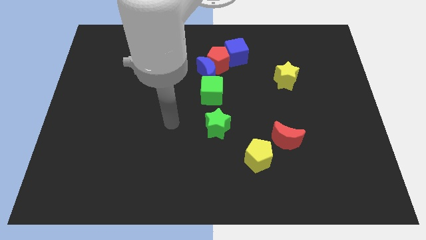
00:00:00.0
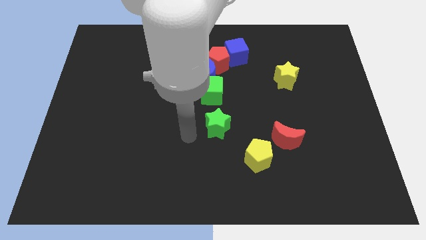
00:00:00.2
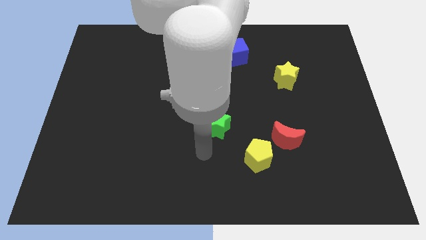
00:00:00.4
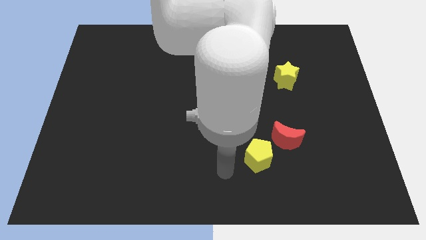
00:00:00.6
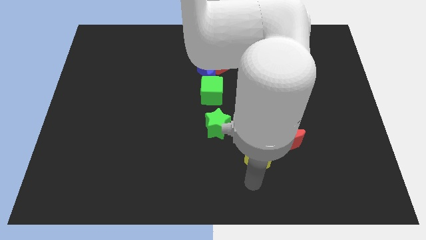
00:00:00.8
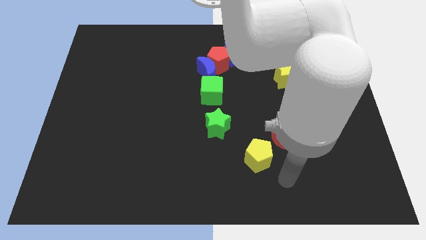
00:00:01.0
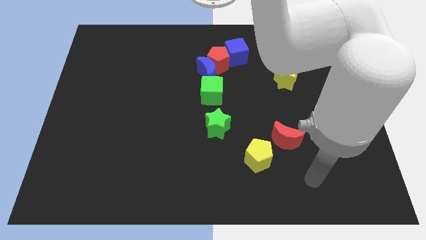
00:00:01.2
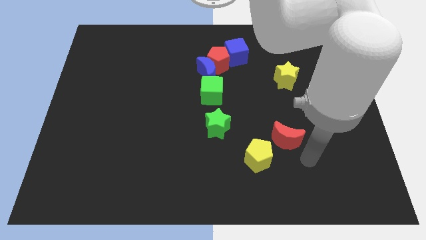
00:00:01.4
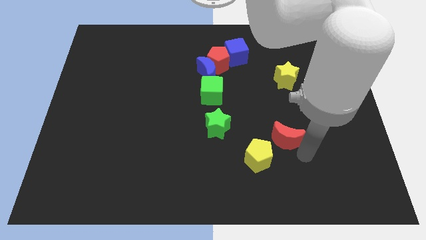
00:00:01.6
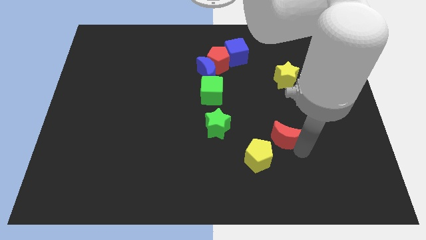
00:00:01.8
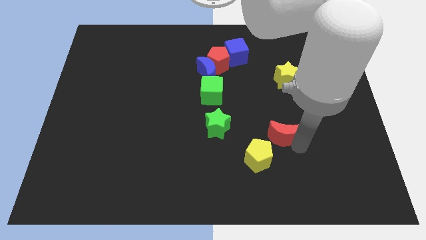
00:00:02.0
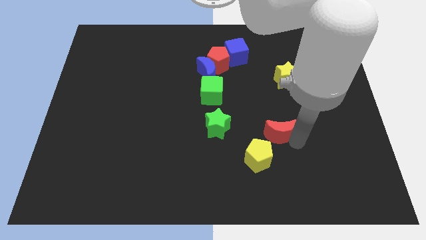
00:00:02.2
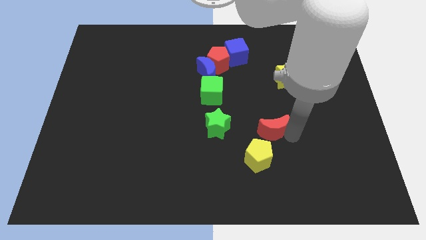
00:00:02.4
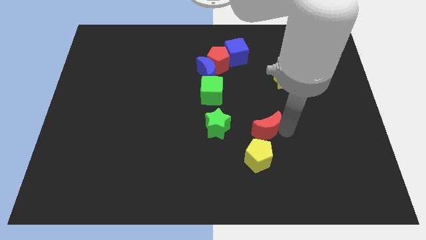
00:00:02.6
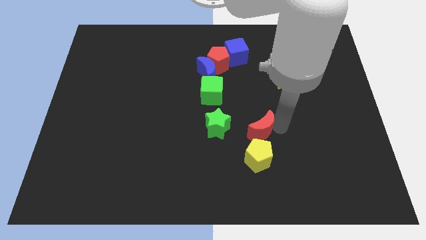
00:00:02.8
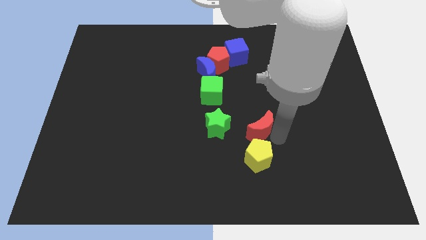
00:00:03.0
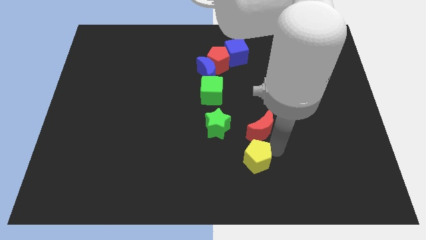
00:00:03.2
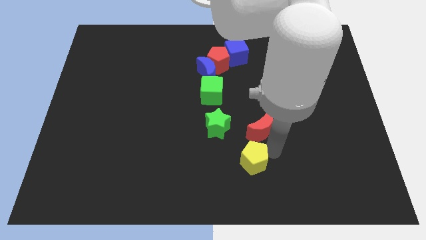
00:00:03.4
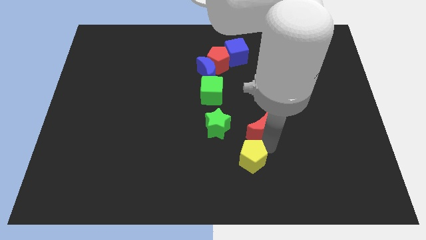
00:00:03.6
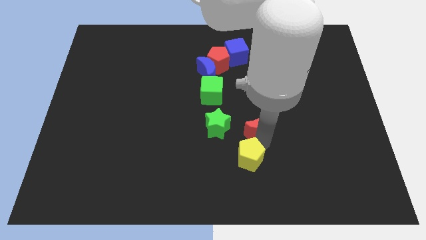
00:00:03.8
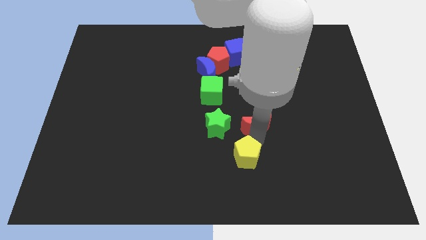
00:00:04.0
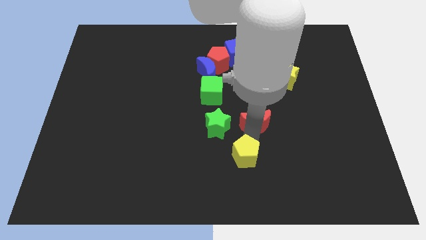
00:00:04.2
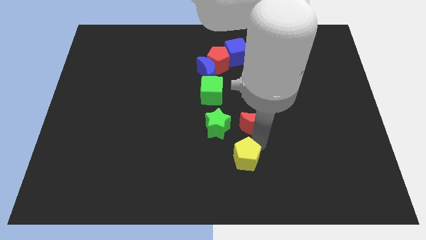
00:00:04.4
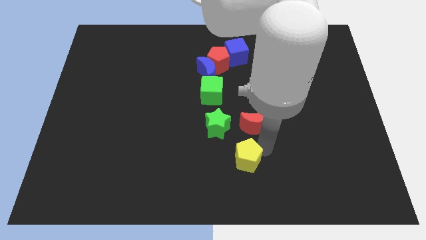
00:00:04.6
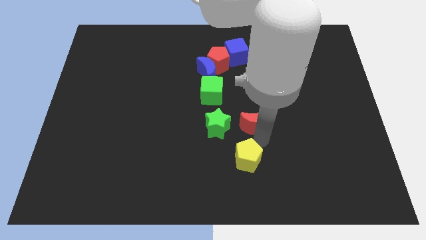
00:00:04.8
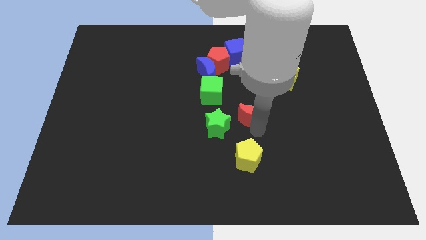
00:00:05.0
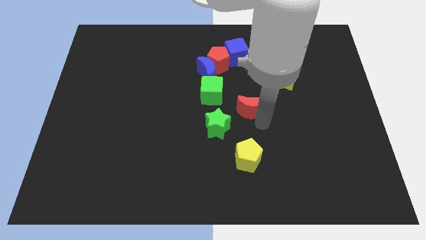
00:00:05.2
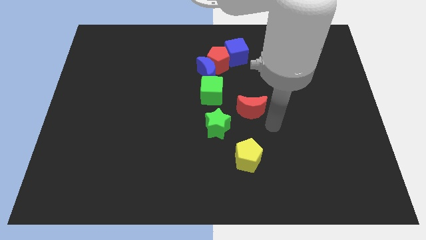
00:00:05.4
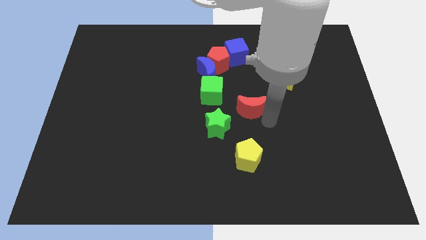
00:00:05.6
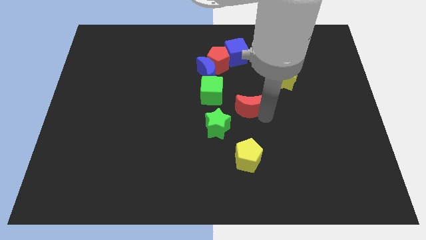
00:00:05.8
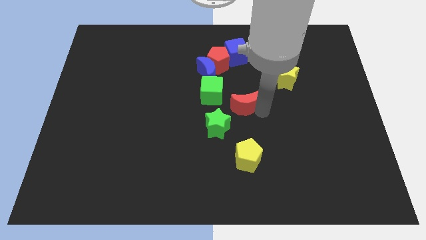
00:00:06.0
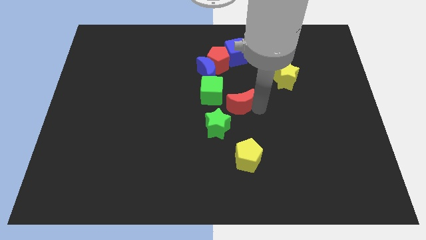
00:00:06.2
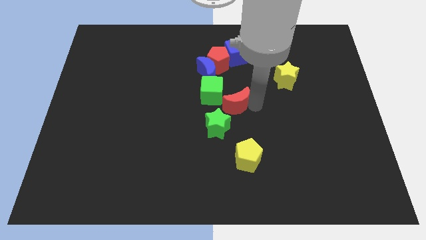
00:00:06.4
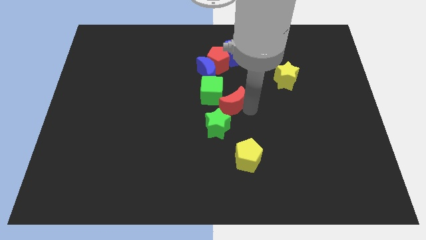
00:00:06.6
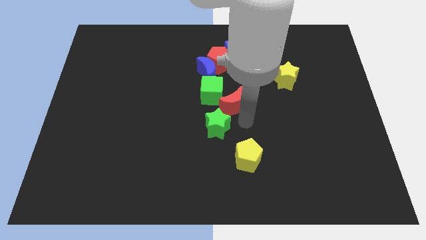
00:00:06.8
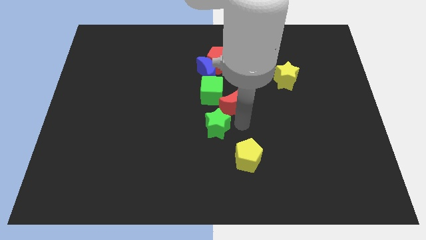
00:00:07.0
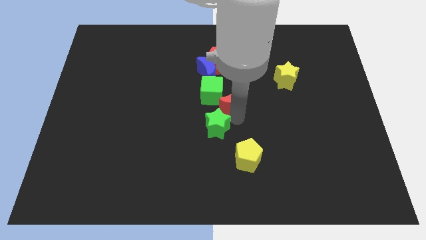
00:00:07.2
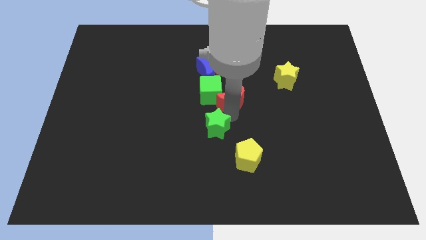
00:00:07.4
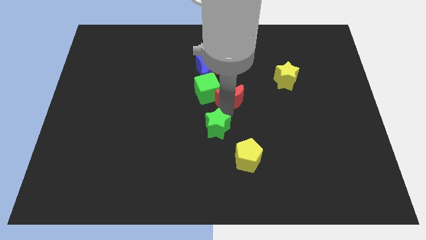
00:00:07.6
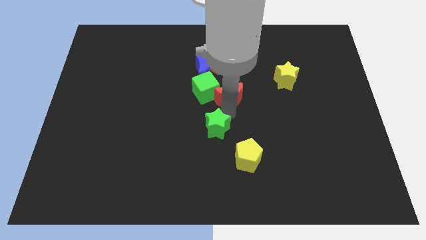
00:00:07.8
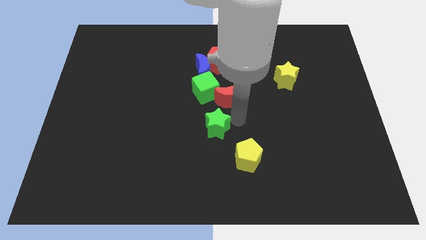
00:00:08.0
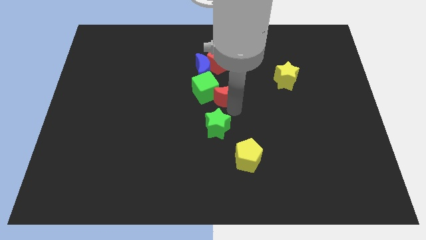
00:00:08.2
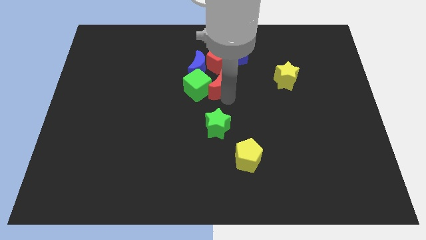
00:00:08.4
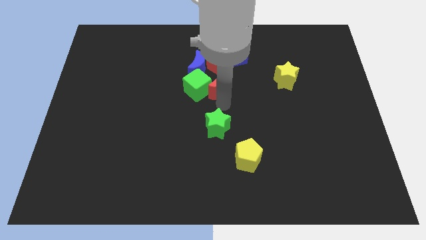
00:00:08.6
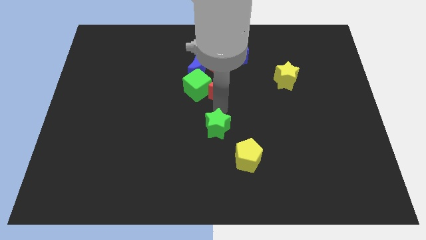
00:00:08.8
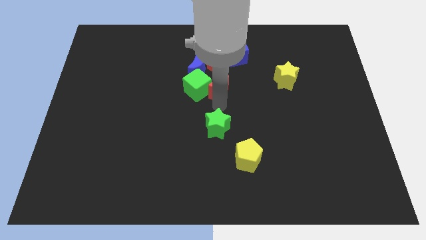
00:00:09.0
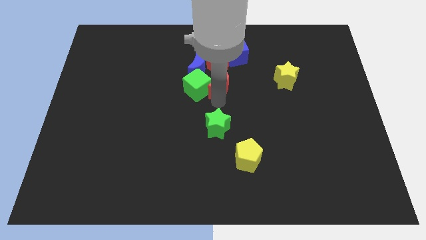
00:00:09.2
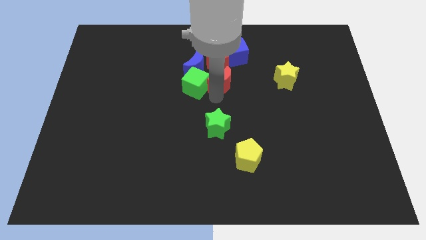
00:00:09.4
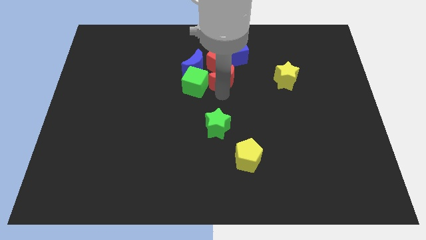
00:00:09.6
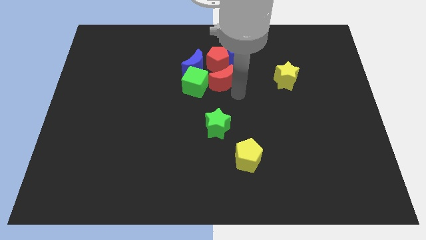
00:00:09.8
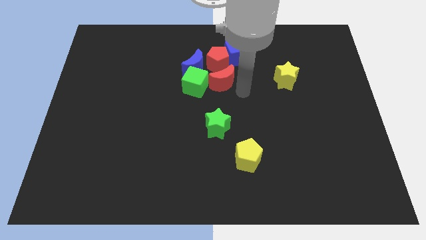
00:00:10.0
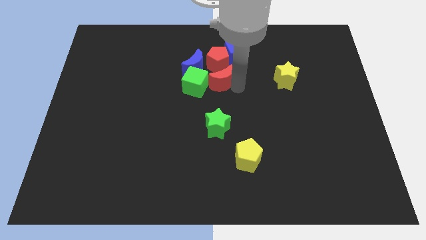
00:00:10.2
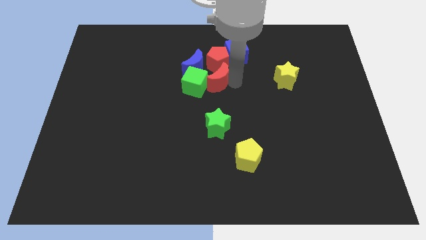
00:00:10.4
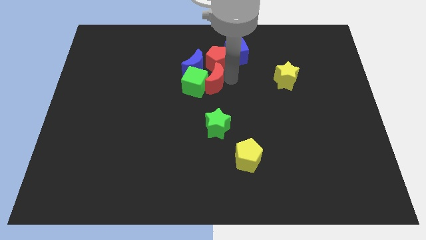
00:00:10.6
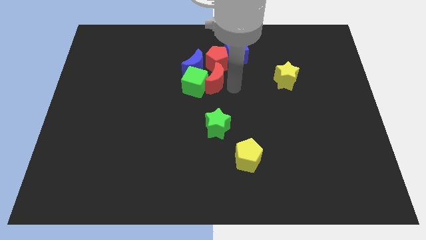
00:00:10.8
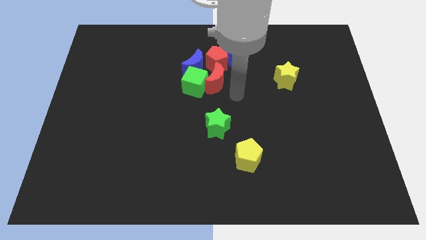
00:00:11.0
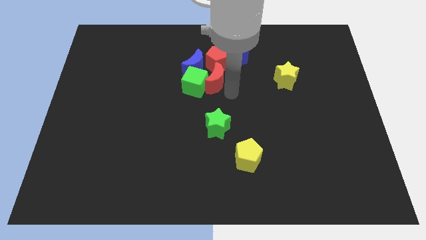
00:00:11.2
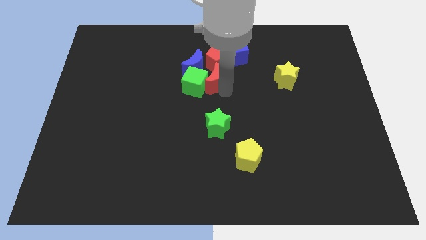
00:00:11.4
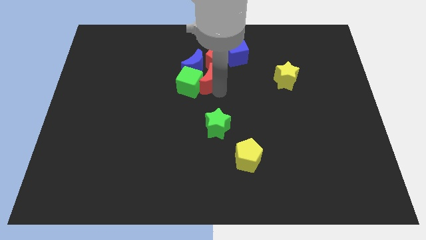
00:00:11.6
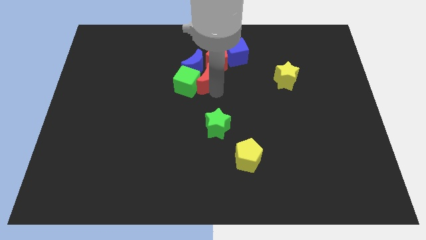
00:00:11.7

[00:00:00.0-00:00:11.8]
push the red moon towards the blue moon
